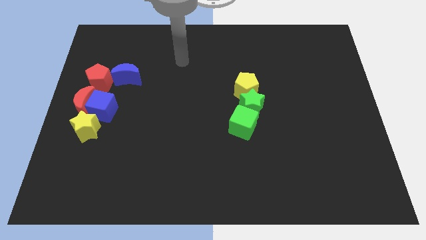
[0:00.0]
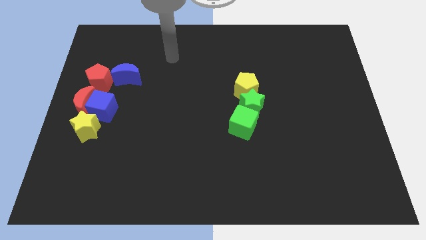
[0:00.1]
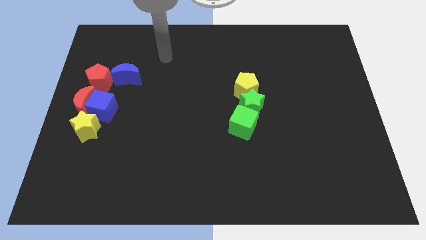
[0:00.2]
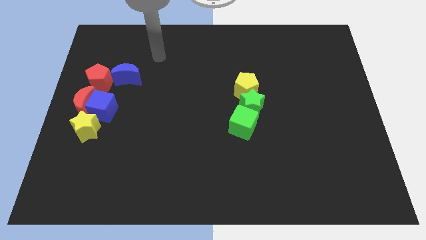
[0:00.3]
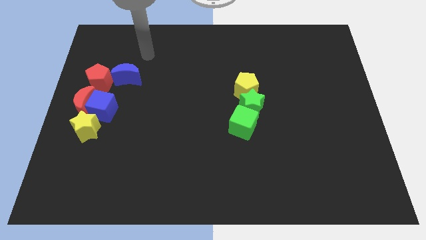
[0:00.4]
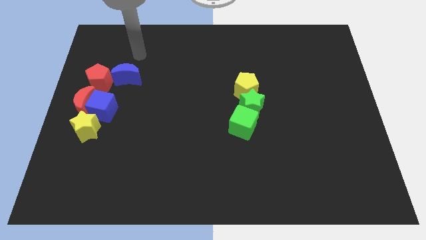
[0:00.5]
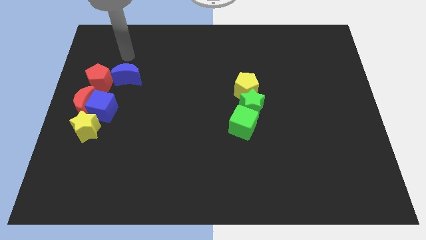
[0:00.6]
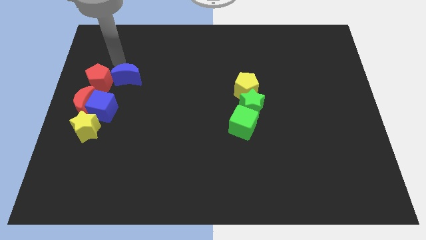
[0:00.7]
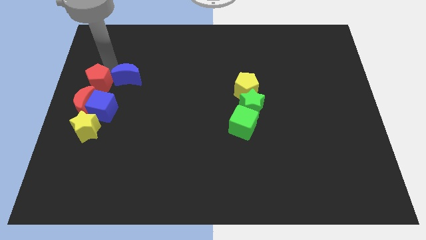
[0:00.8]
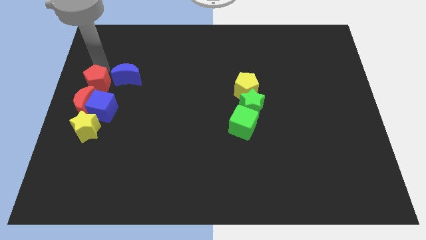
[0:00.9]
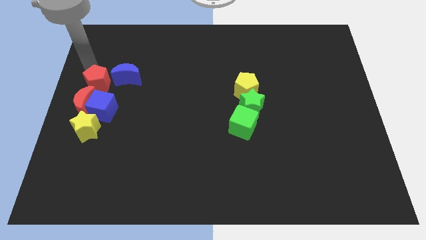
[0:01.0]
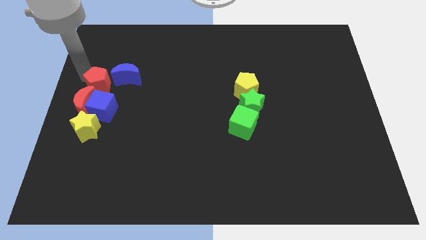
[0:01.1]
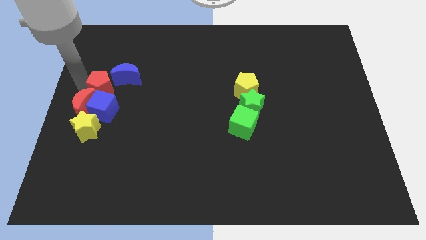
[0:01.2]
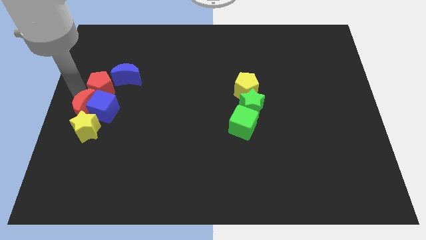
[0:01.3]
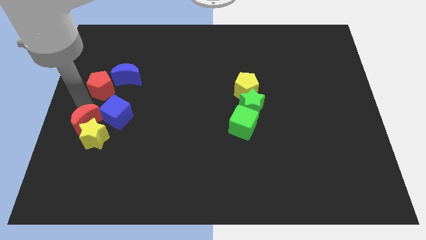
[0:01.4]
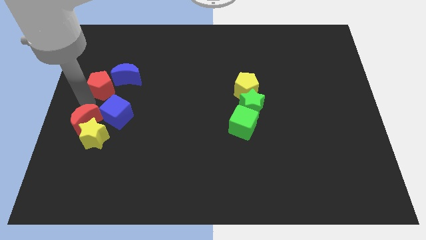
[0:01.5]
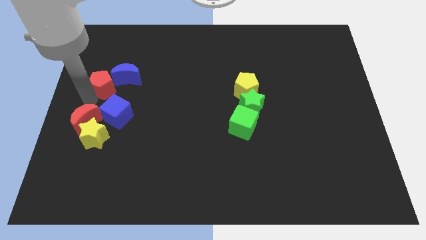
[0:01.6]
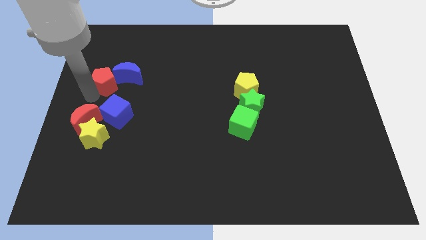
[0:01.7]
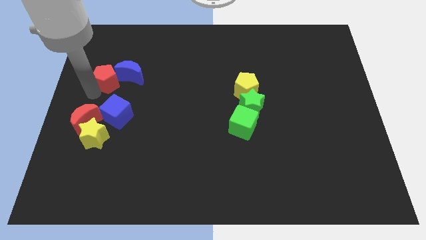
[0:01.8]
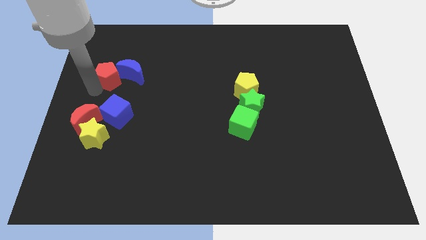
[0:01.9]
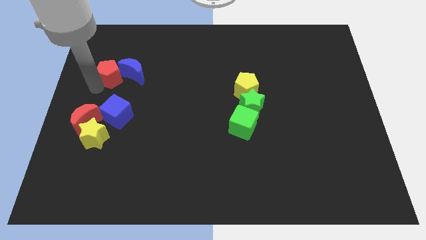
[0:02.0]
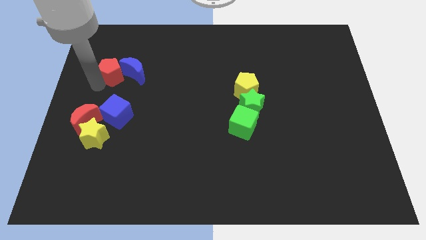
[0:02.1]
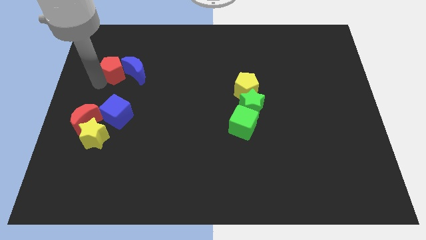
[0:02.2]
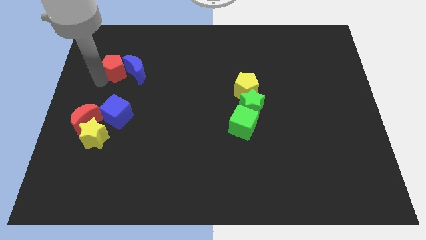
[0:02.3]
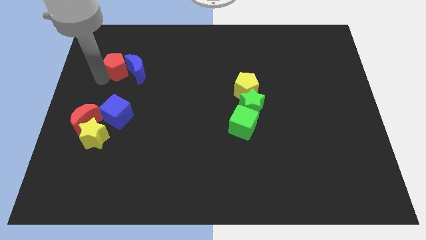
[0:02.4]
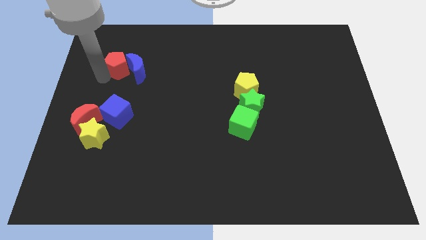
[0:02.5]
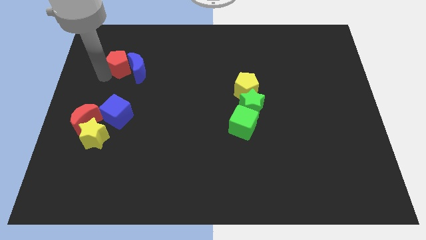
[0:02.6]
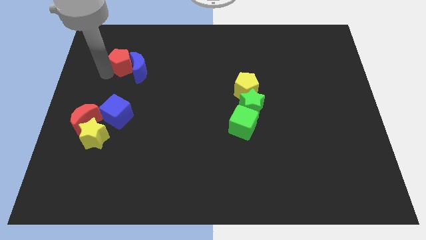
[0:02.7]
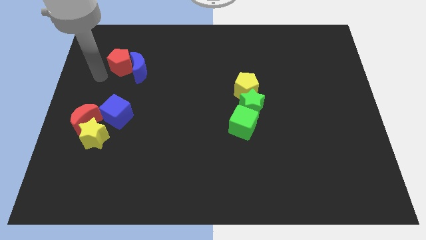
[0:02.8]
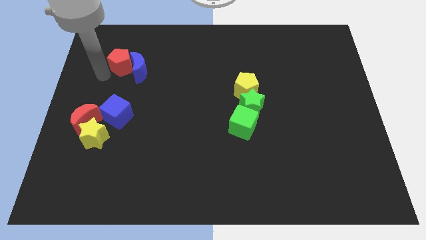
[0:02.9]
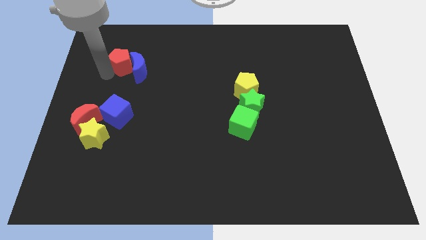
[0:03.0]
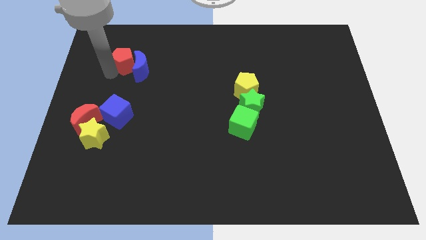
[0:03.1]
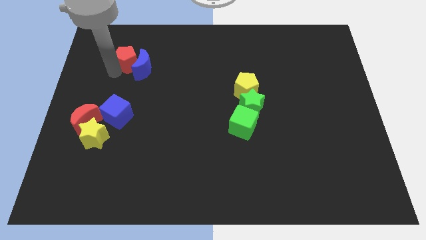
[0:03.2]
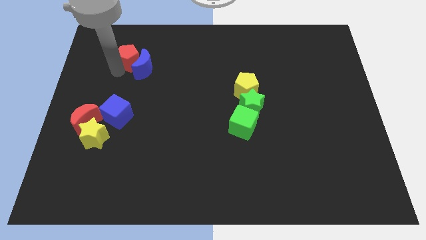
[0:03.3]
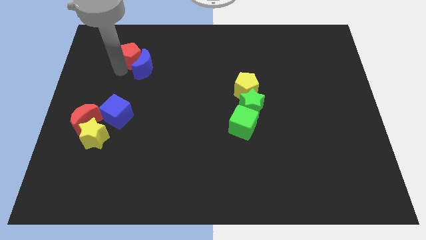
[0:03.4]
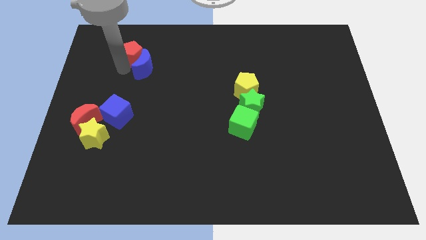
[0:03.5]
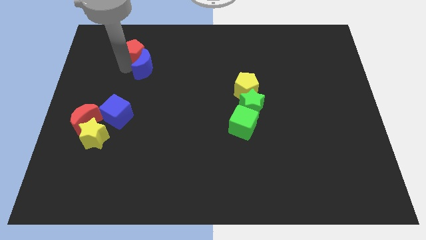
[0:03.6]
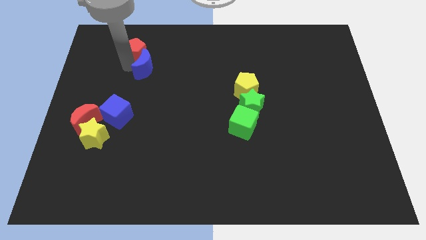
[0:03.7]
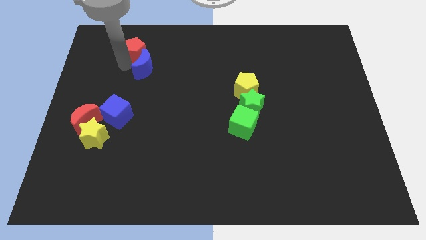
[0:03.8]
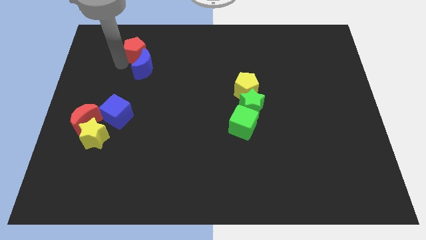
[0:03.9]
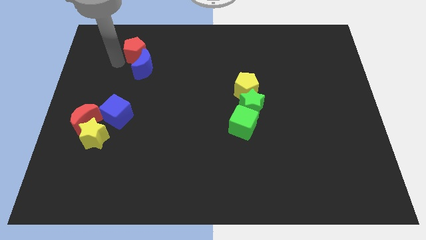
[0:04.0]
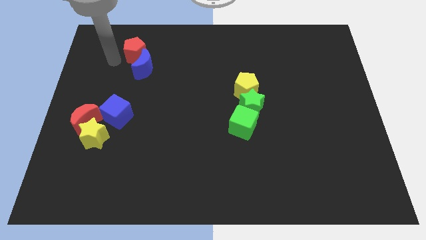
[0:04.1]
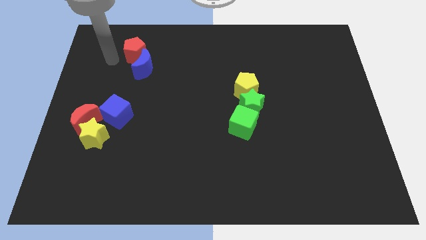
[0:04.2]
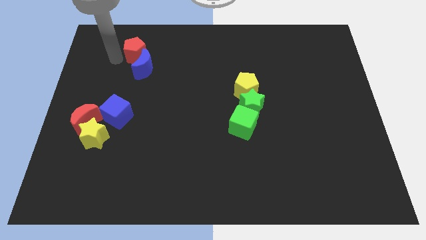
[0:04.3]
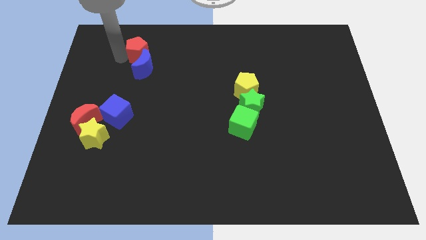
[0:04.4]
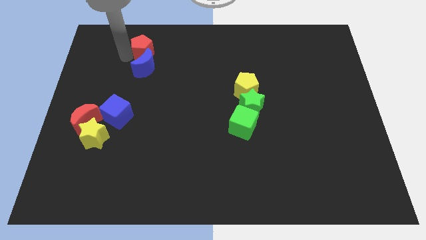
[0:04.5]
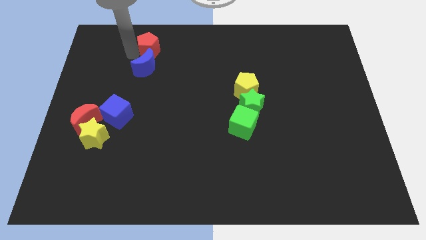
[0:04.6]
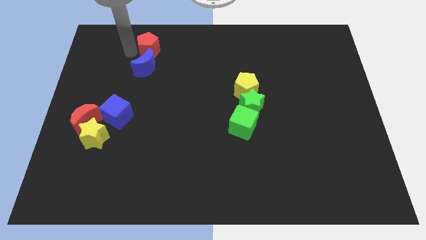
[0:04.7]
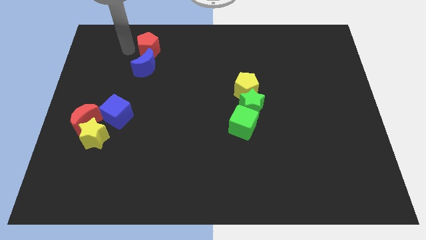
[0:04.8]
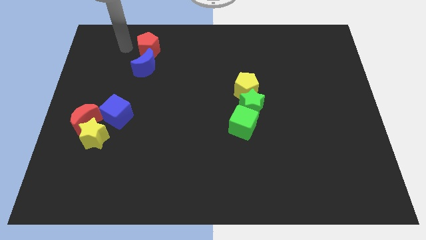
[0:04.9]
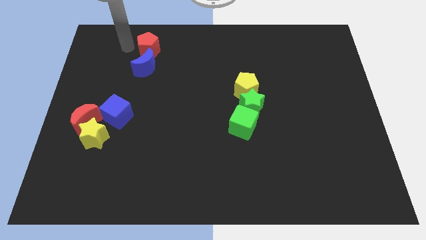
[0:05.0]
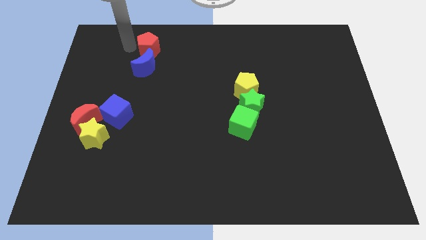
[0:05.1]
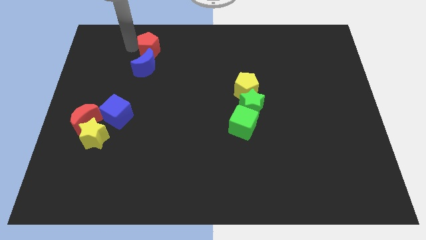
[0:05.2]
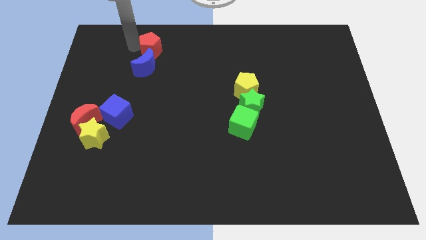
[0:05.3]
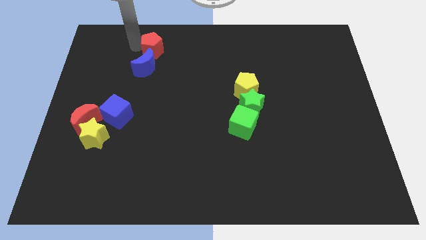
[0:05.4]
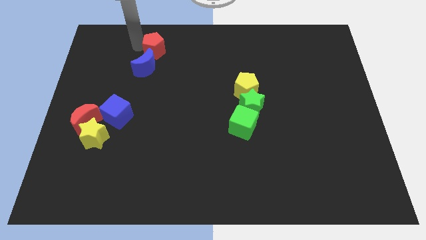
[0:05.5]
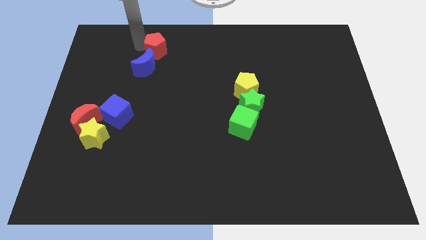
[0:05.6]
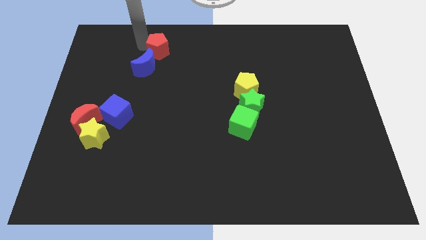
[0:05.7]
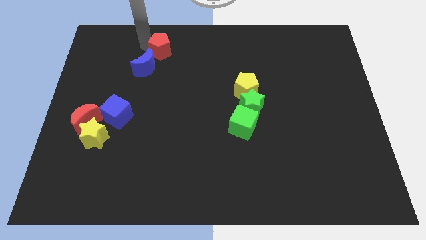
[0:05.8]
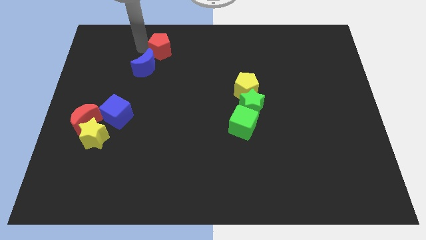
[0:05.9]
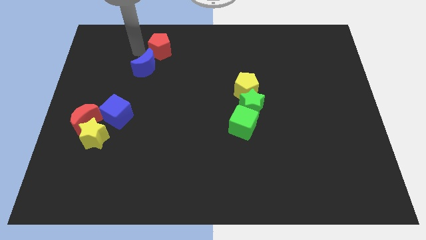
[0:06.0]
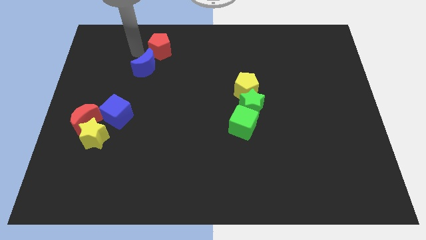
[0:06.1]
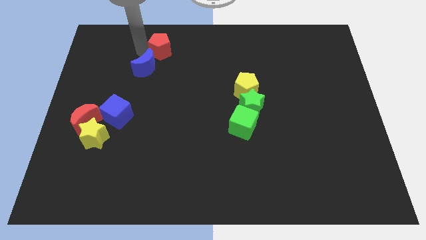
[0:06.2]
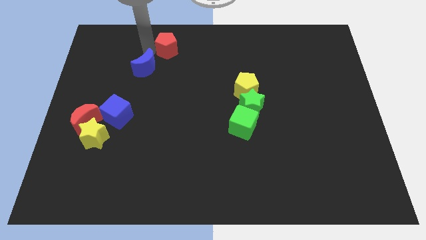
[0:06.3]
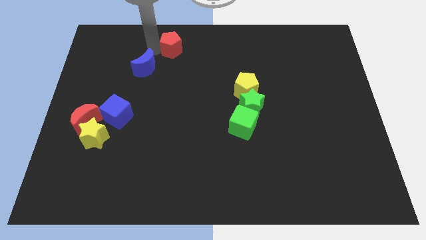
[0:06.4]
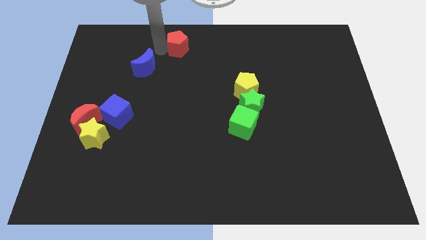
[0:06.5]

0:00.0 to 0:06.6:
put the red pentagon to the towards your base
